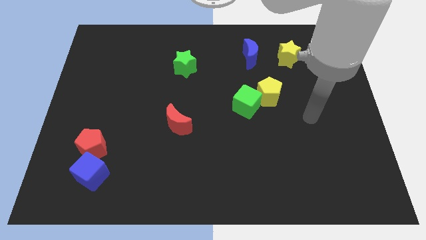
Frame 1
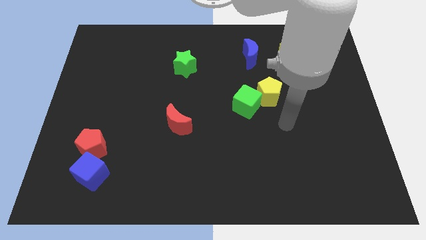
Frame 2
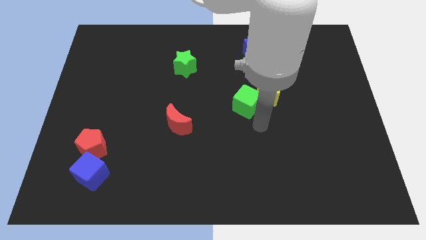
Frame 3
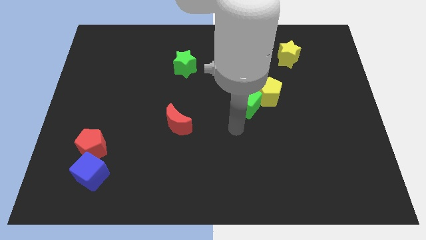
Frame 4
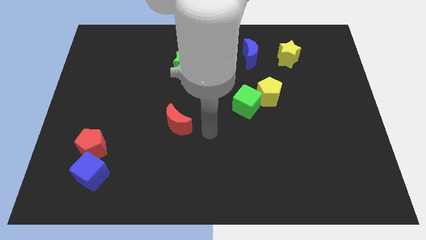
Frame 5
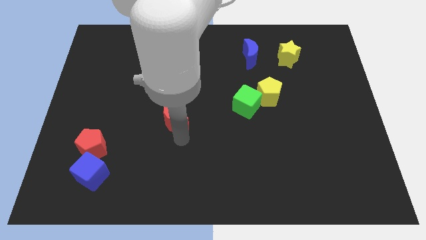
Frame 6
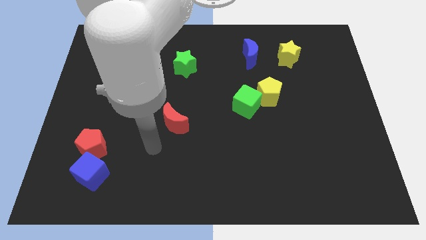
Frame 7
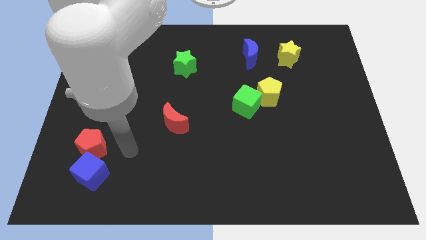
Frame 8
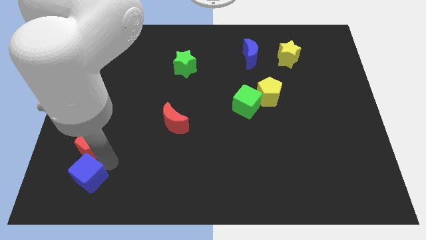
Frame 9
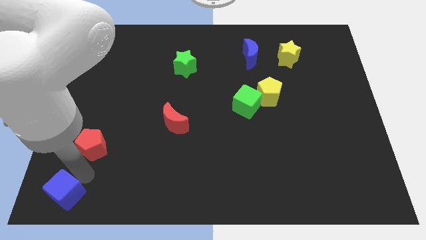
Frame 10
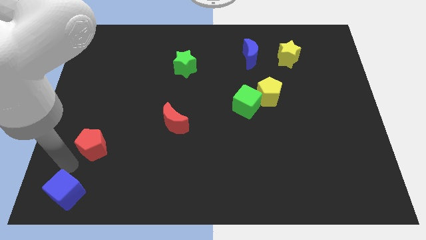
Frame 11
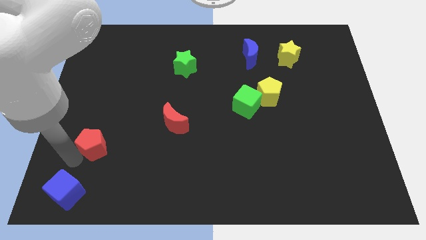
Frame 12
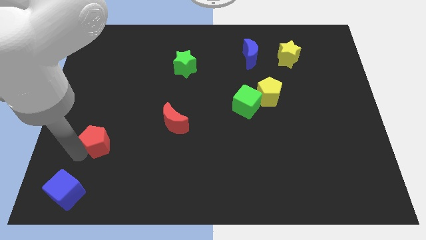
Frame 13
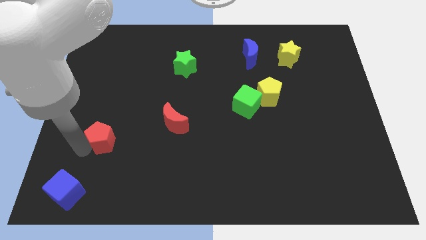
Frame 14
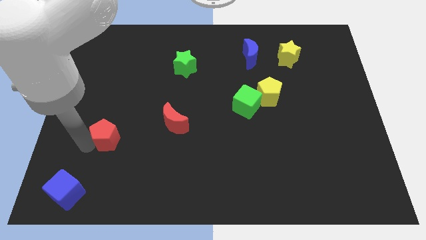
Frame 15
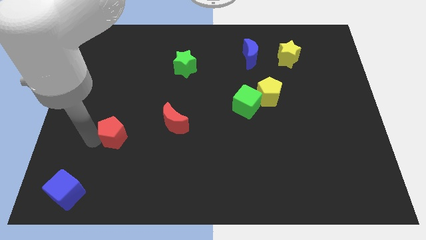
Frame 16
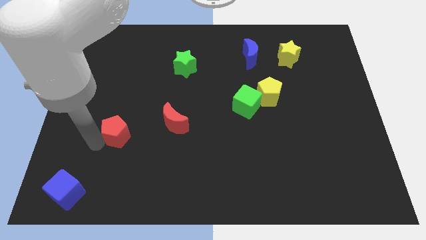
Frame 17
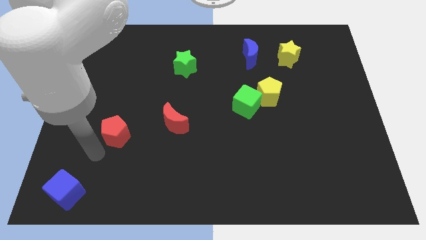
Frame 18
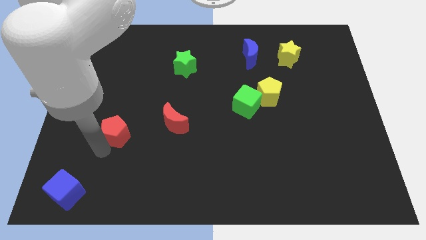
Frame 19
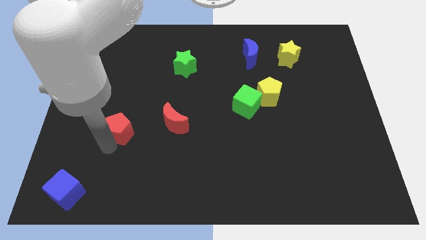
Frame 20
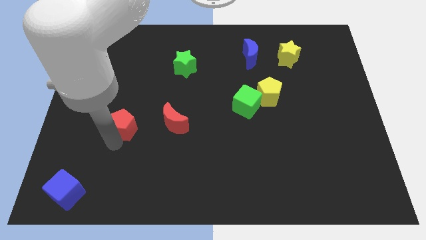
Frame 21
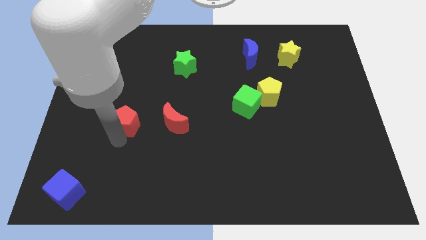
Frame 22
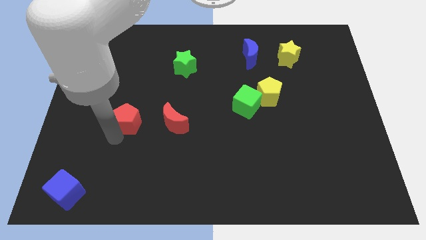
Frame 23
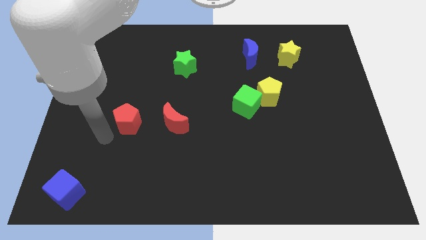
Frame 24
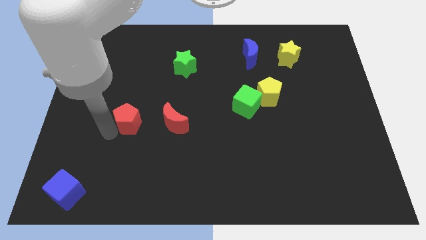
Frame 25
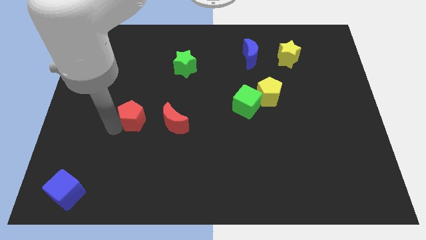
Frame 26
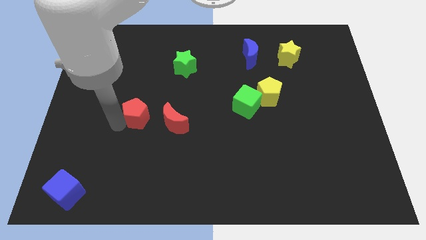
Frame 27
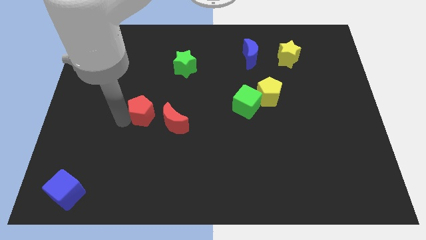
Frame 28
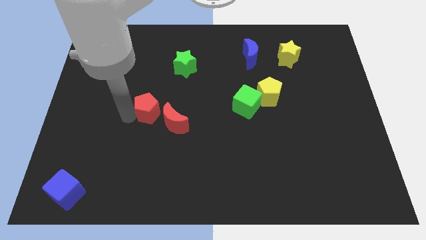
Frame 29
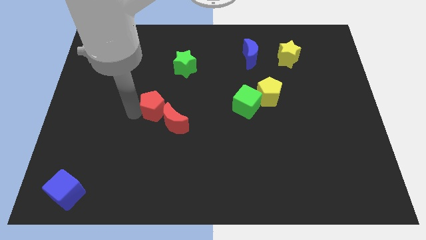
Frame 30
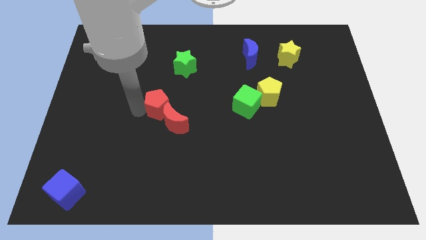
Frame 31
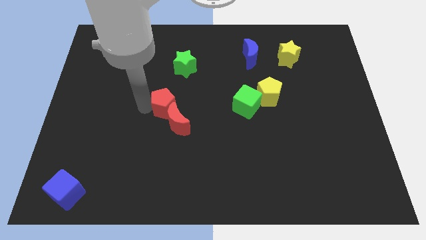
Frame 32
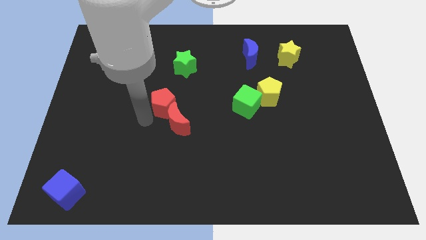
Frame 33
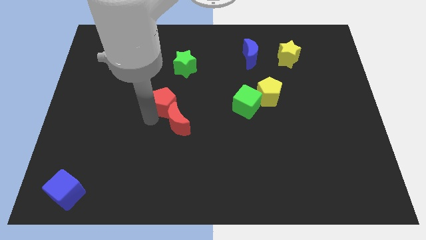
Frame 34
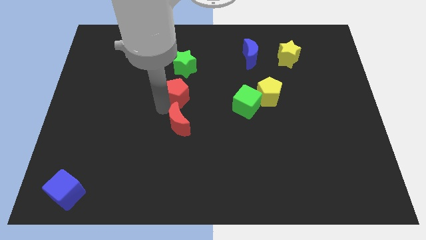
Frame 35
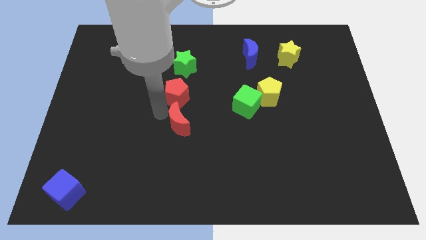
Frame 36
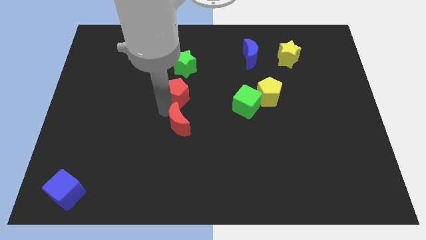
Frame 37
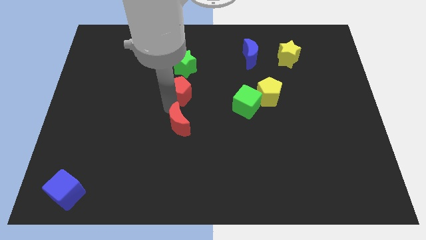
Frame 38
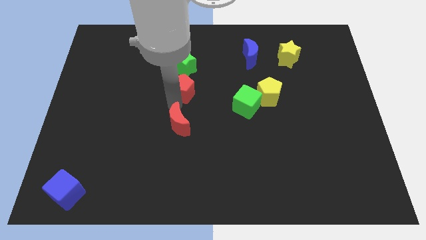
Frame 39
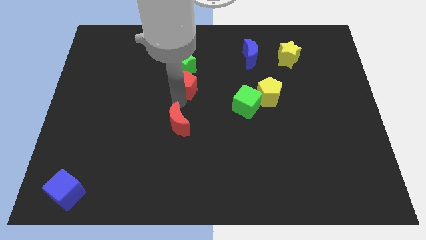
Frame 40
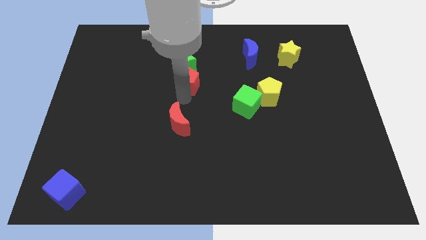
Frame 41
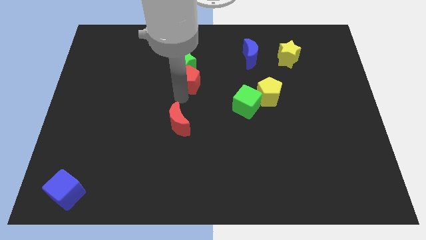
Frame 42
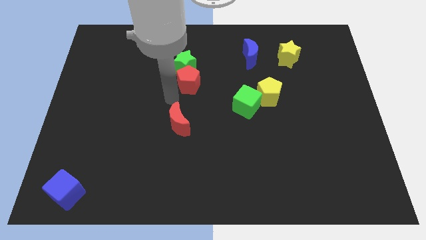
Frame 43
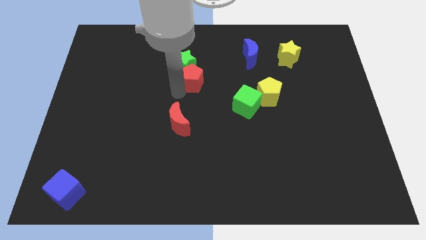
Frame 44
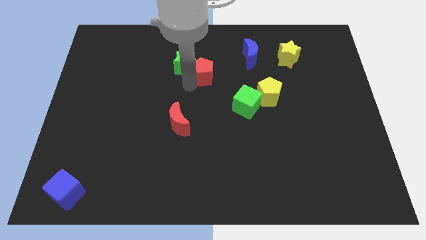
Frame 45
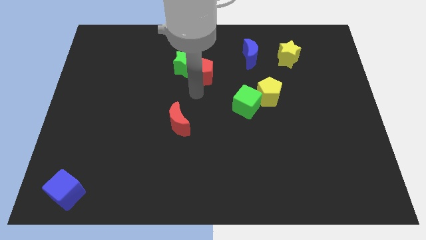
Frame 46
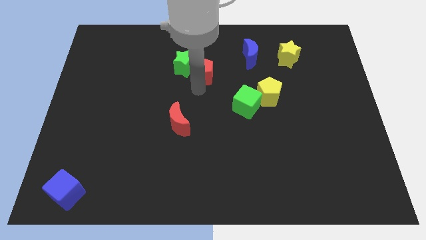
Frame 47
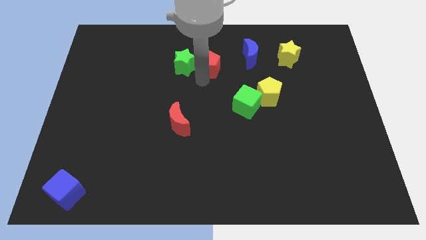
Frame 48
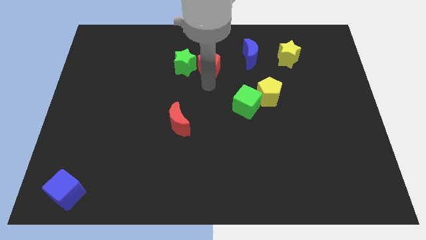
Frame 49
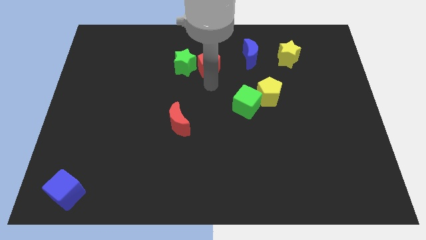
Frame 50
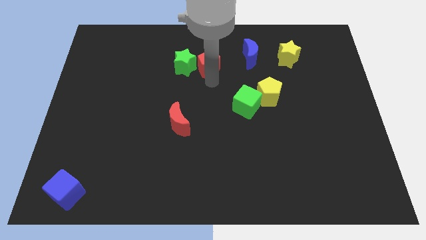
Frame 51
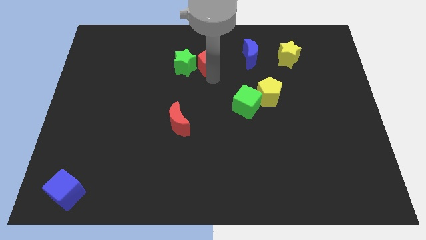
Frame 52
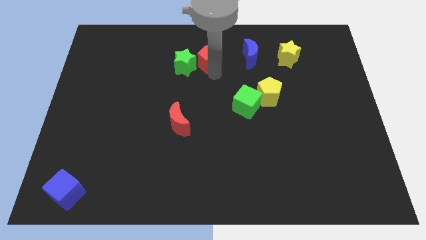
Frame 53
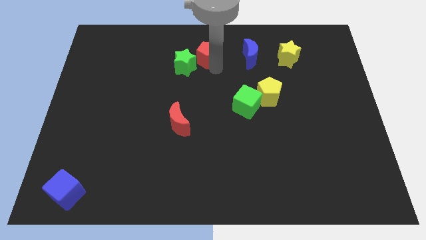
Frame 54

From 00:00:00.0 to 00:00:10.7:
push the red pentagon to the towards your base

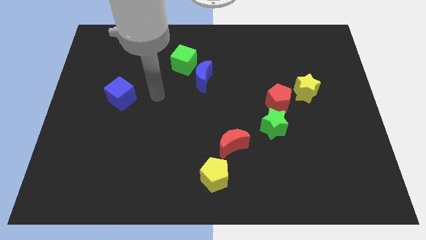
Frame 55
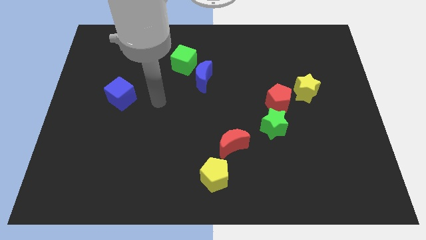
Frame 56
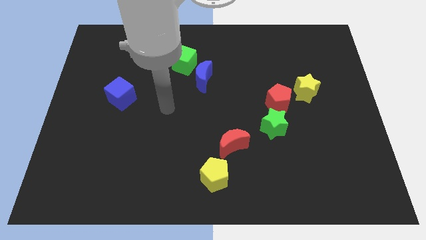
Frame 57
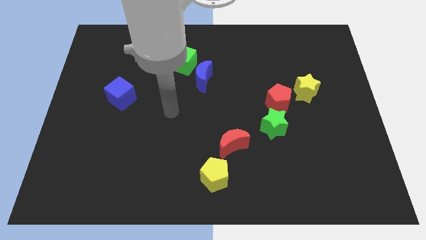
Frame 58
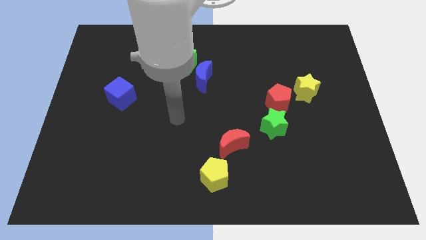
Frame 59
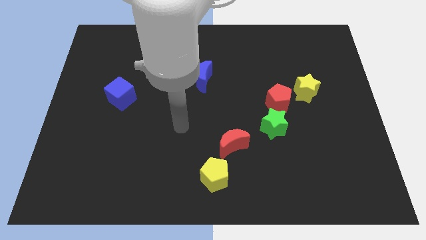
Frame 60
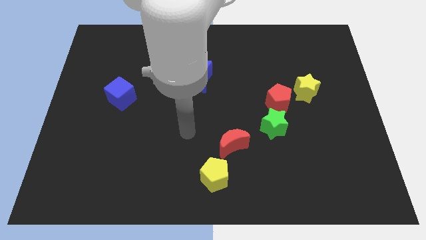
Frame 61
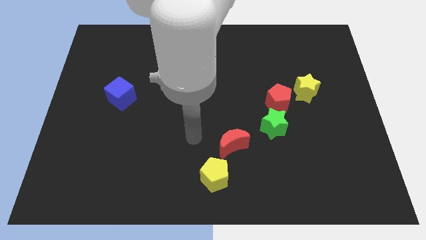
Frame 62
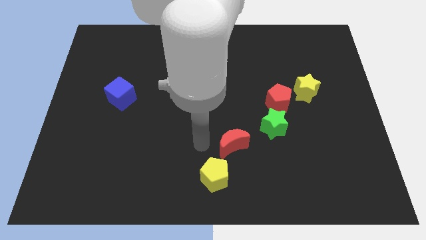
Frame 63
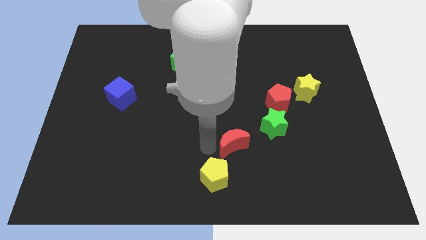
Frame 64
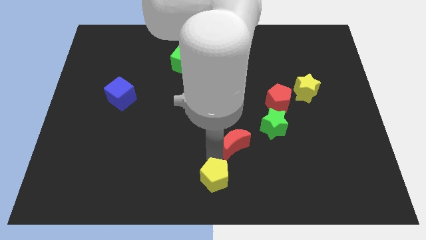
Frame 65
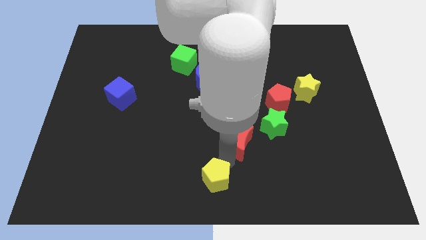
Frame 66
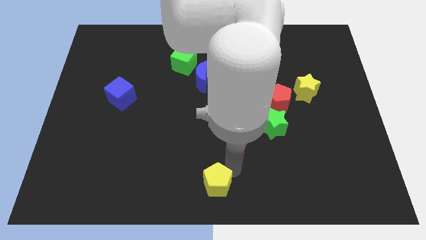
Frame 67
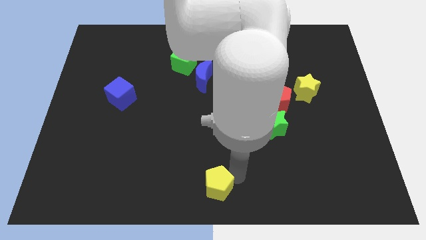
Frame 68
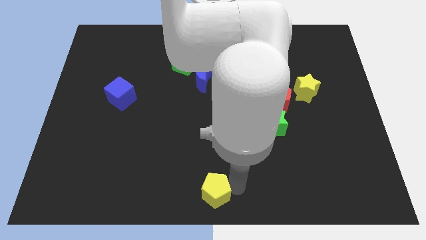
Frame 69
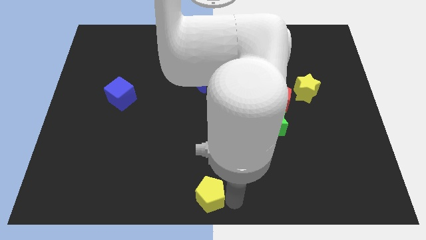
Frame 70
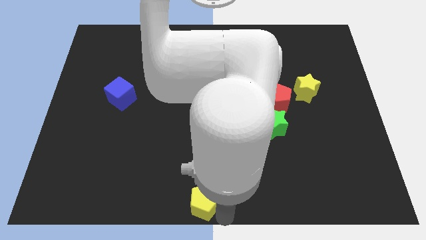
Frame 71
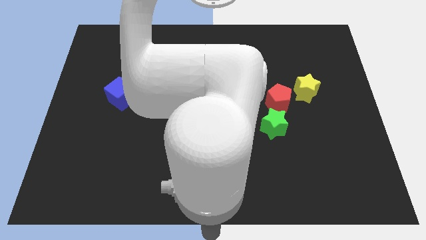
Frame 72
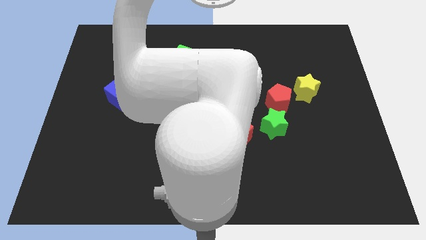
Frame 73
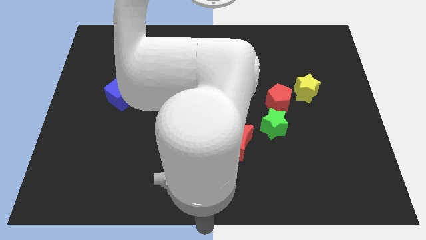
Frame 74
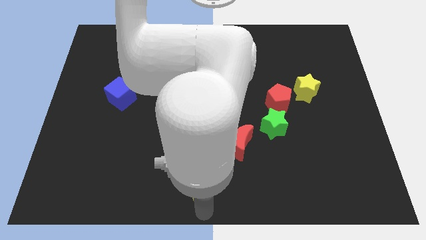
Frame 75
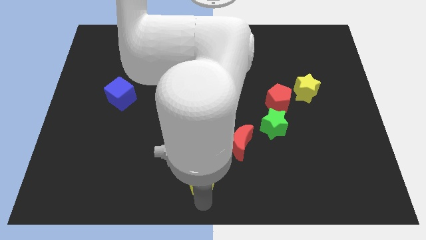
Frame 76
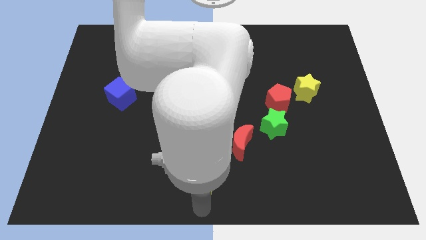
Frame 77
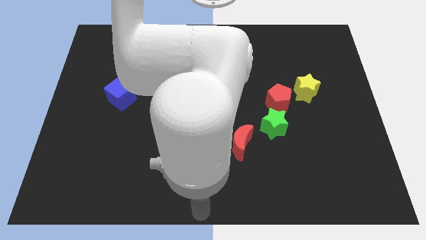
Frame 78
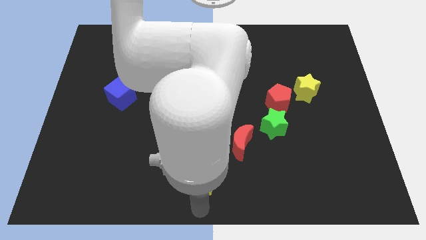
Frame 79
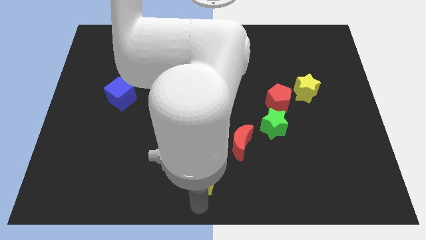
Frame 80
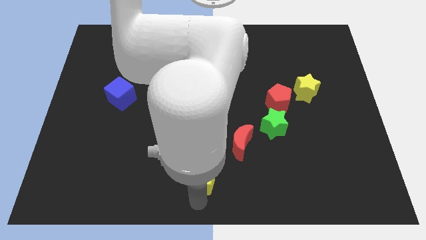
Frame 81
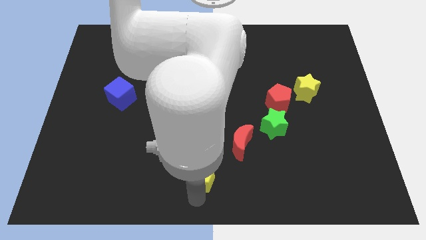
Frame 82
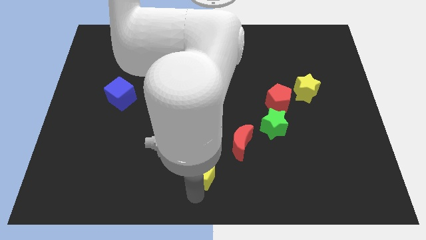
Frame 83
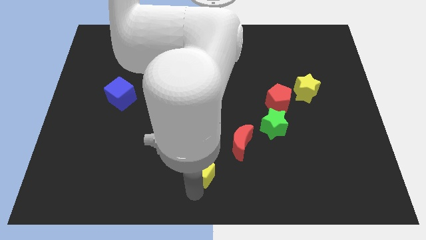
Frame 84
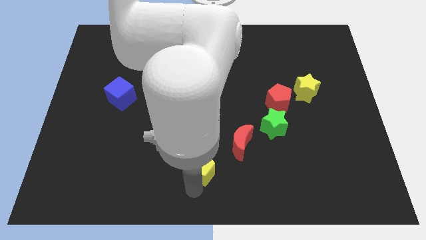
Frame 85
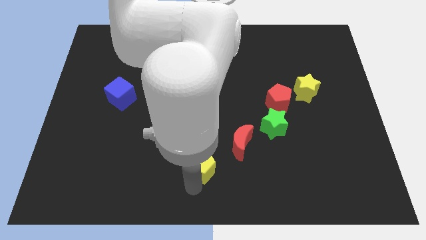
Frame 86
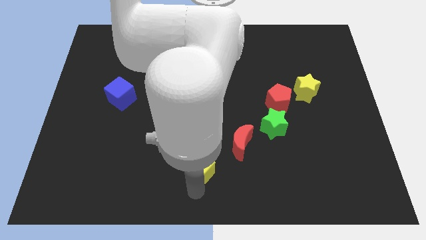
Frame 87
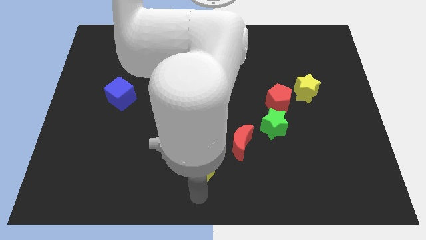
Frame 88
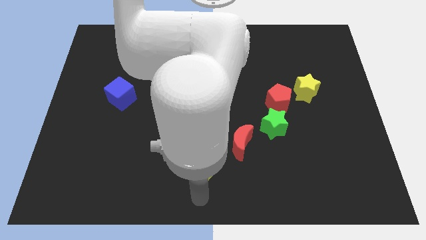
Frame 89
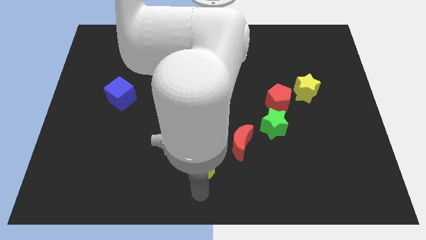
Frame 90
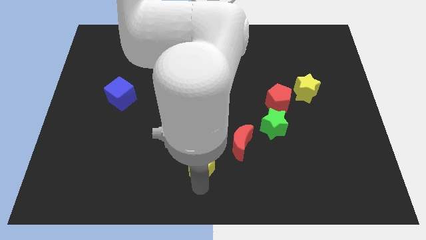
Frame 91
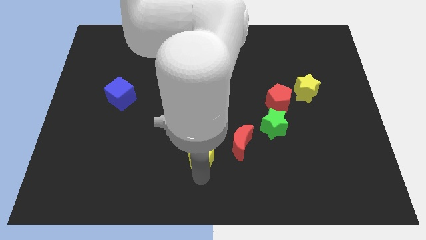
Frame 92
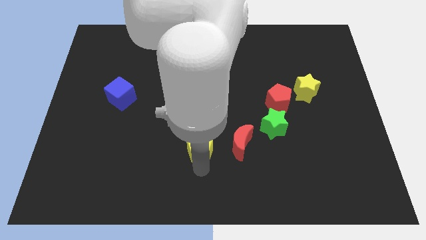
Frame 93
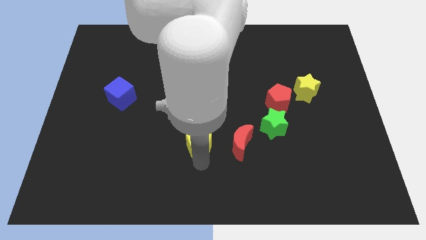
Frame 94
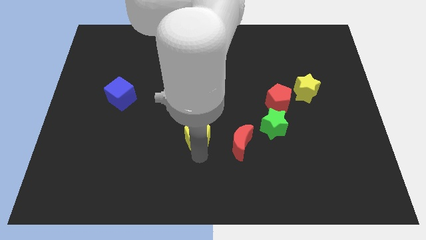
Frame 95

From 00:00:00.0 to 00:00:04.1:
slide the yellow pentagon to the center of the board
